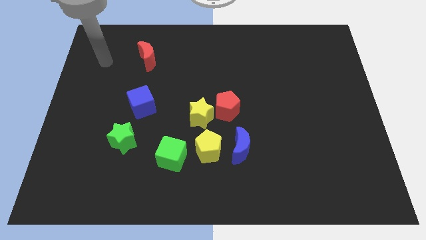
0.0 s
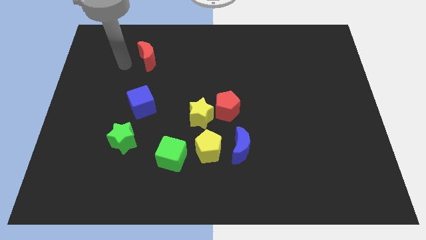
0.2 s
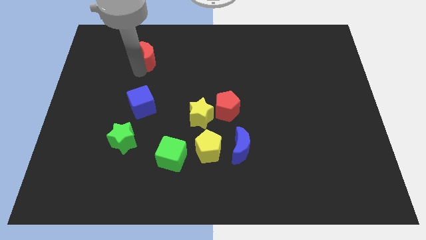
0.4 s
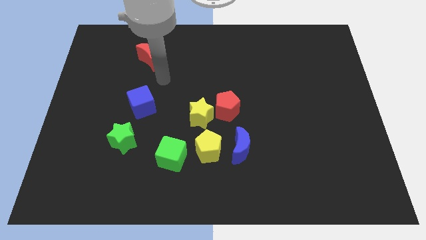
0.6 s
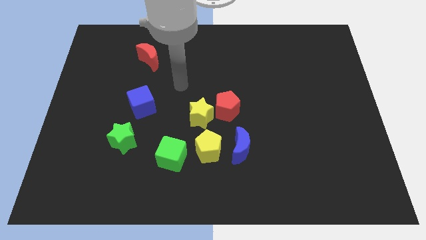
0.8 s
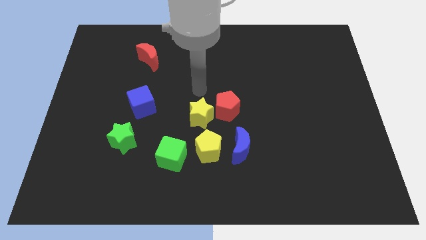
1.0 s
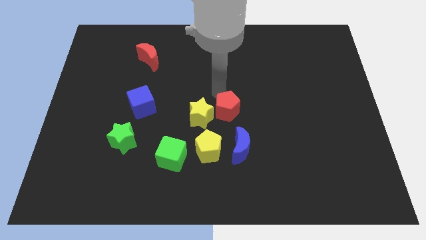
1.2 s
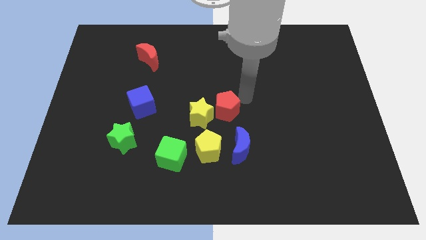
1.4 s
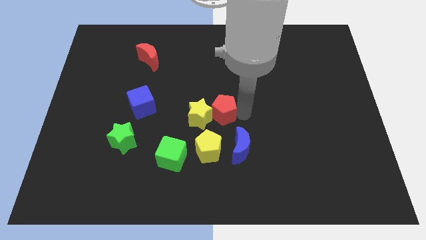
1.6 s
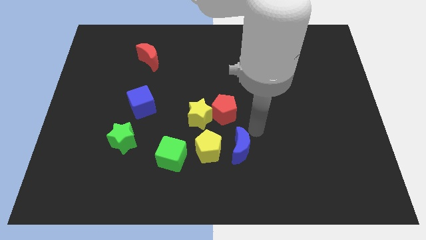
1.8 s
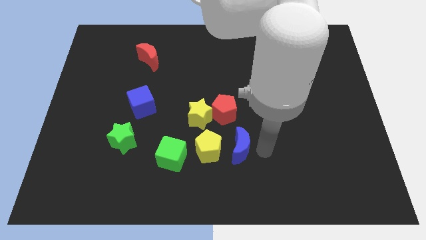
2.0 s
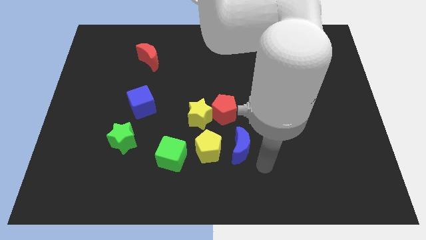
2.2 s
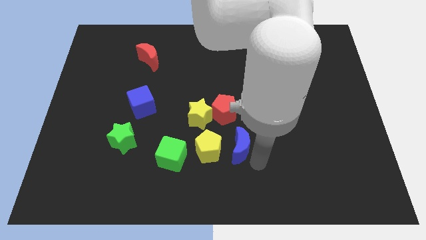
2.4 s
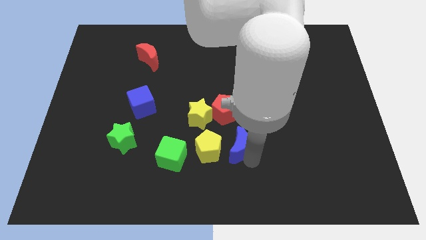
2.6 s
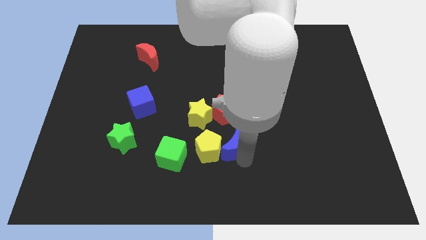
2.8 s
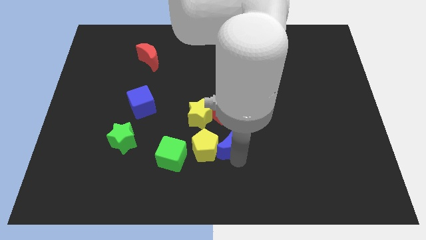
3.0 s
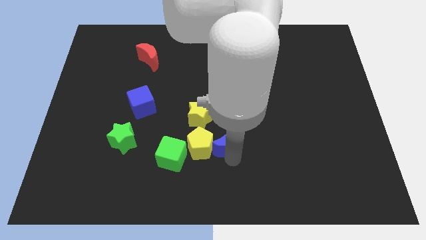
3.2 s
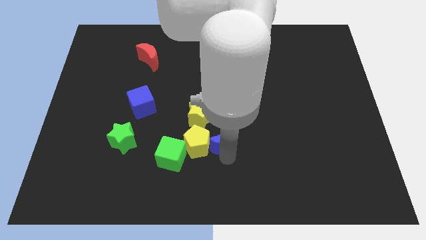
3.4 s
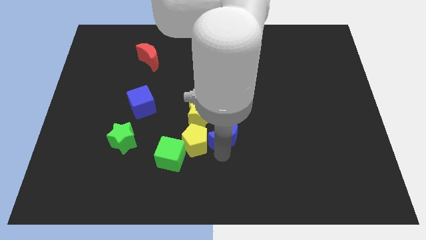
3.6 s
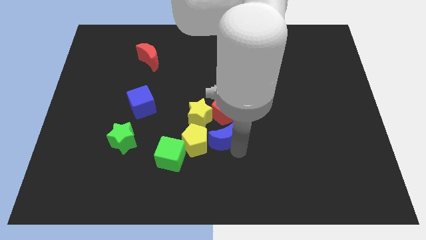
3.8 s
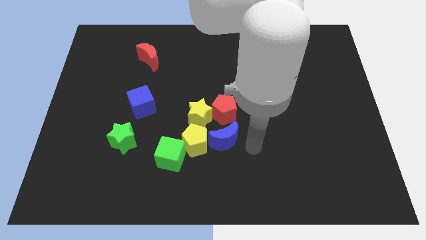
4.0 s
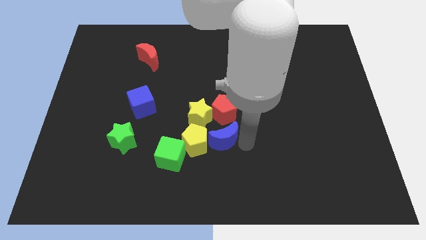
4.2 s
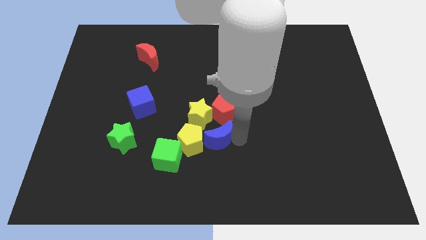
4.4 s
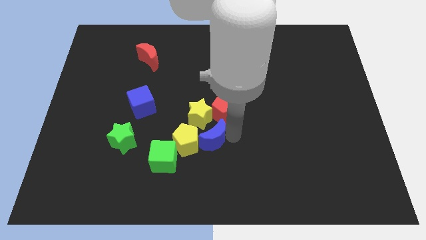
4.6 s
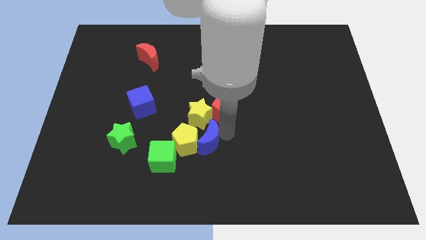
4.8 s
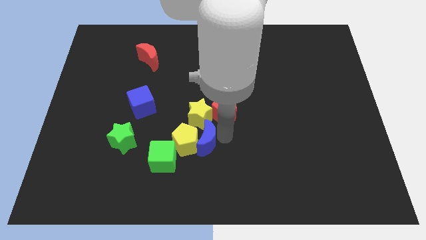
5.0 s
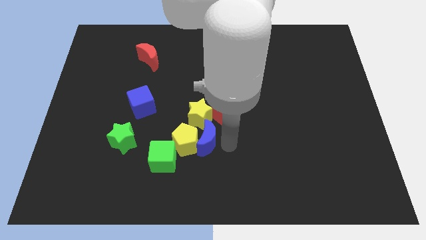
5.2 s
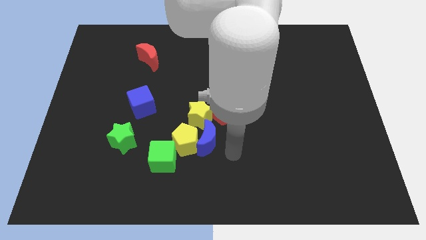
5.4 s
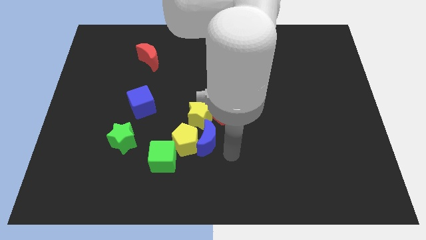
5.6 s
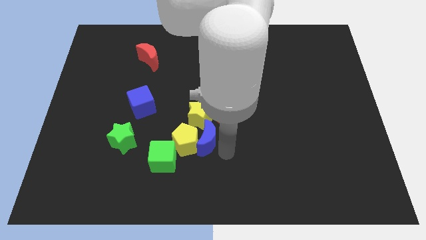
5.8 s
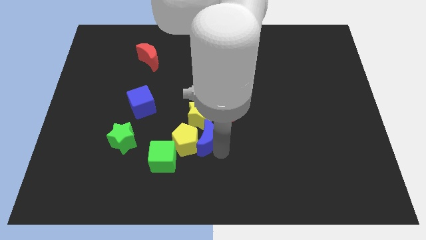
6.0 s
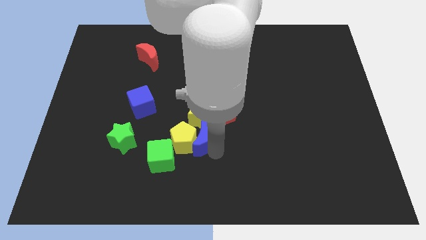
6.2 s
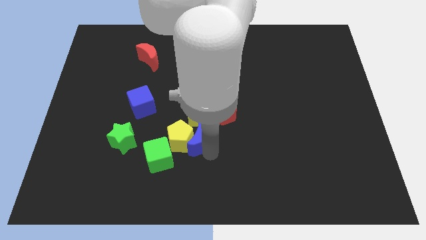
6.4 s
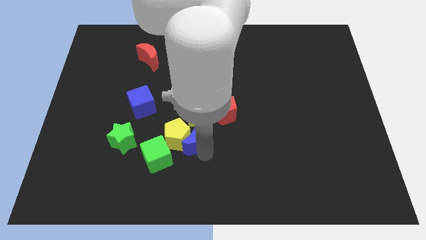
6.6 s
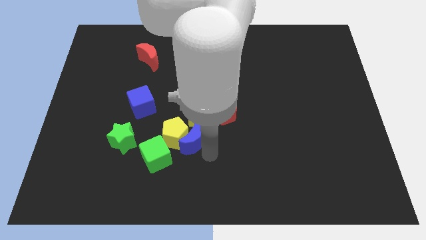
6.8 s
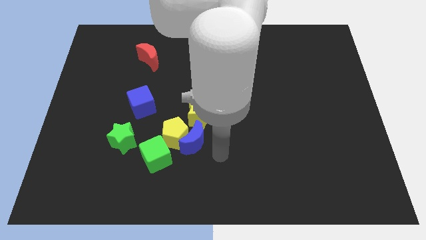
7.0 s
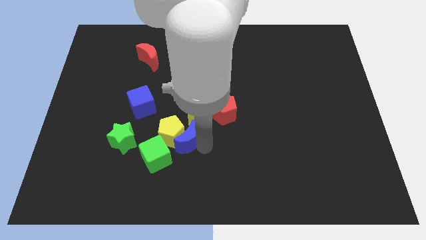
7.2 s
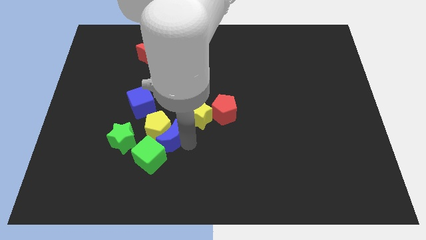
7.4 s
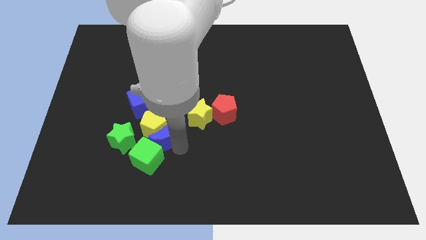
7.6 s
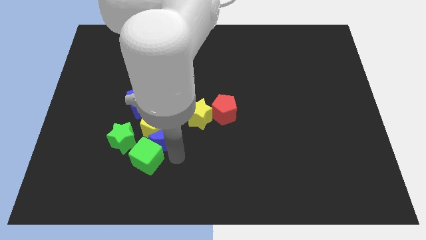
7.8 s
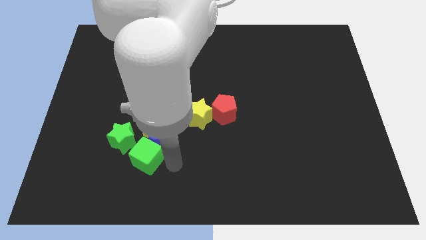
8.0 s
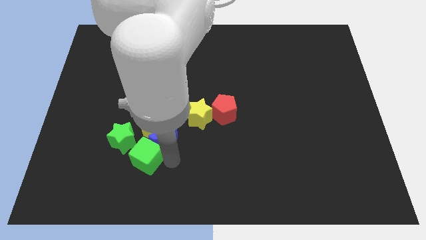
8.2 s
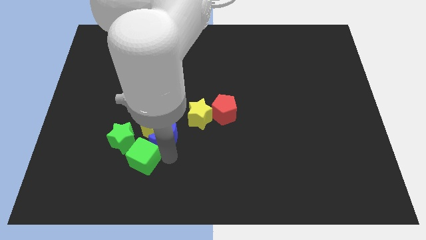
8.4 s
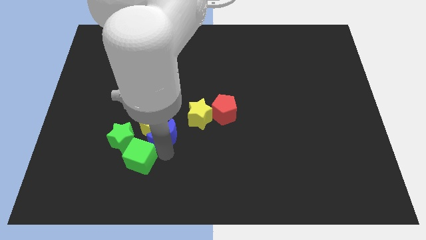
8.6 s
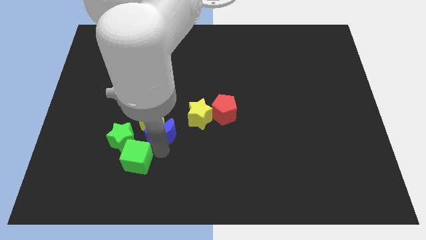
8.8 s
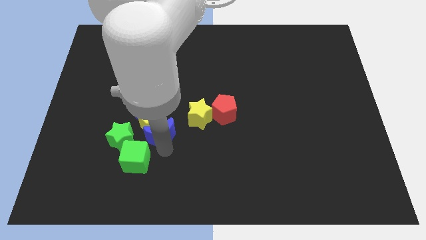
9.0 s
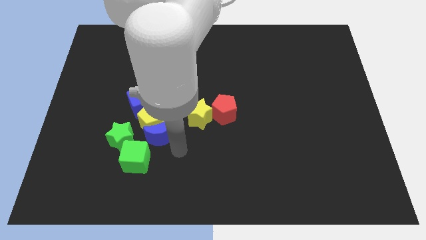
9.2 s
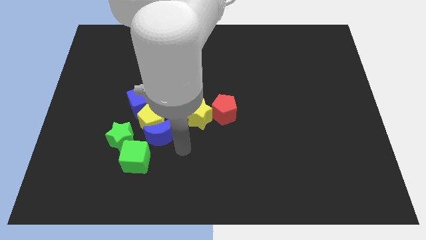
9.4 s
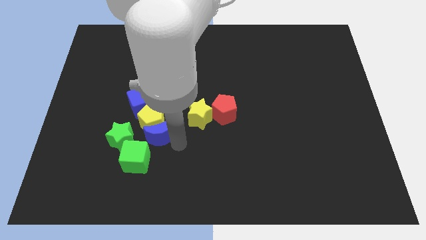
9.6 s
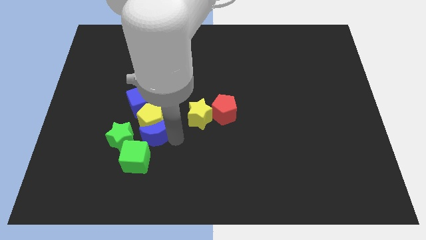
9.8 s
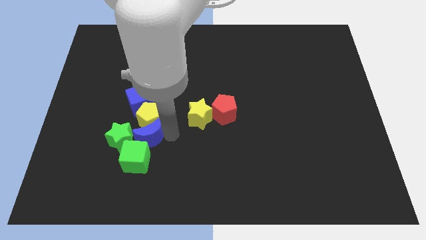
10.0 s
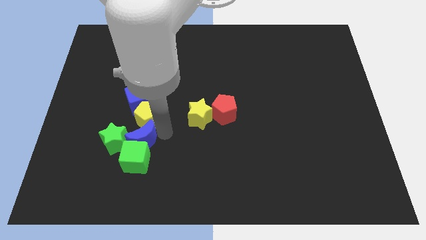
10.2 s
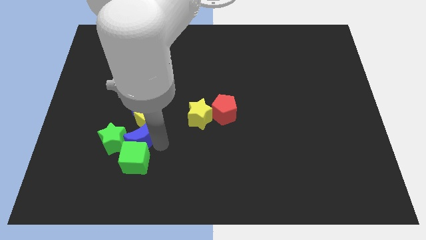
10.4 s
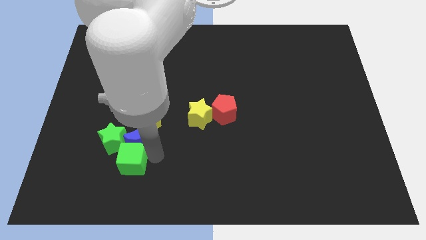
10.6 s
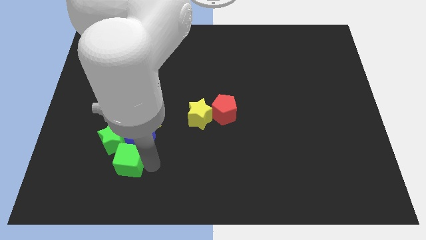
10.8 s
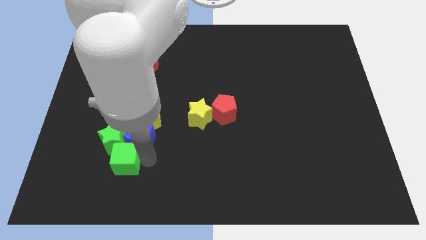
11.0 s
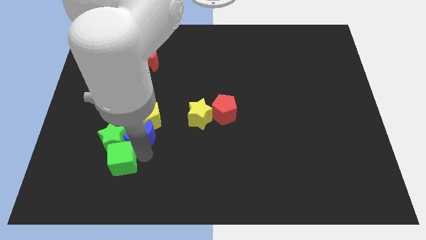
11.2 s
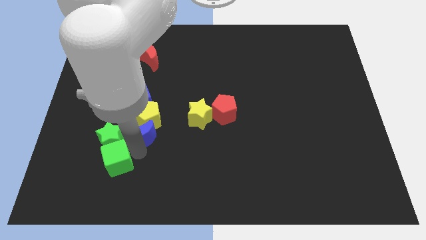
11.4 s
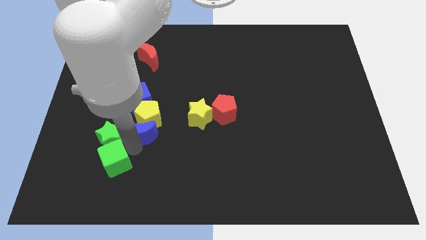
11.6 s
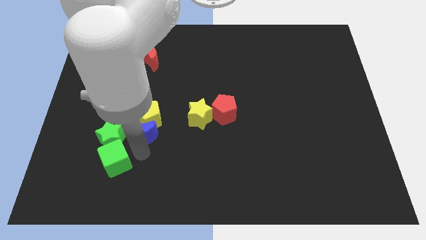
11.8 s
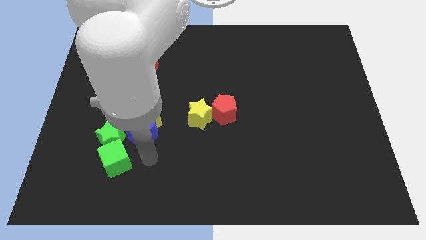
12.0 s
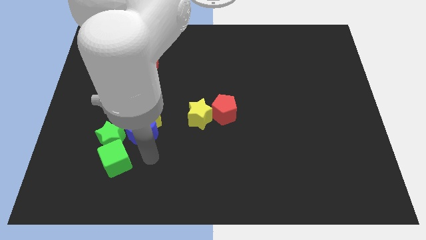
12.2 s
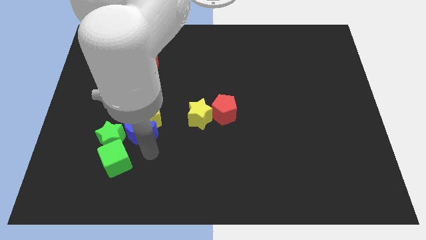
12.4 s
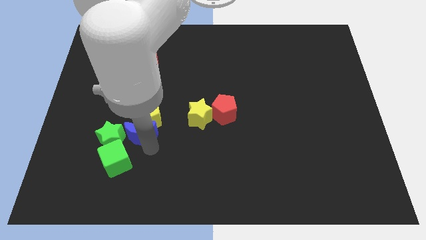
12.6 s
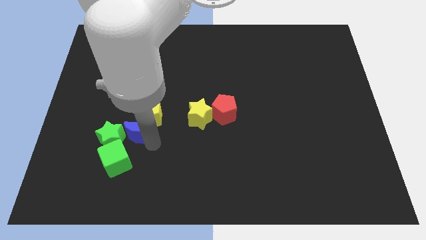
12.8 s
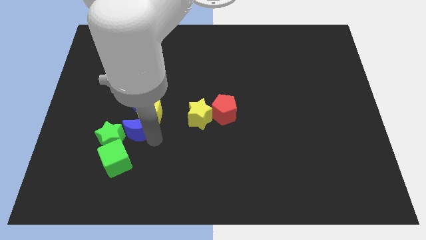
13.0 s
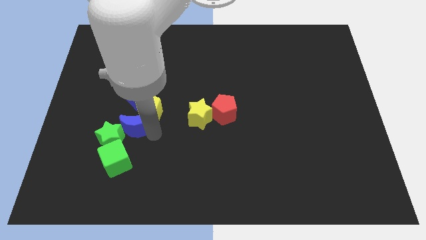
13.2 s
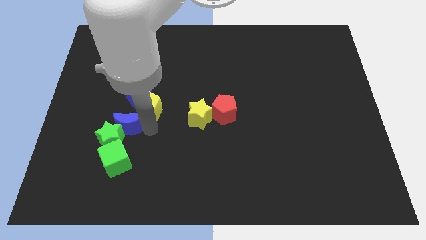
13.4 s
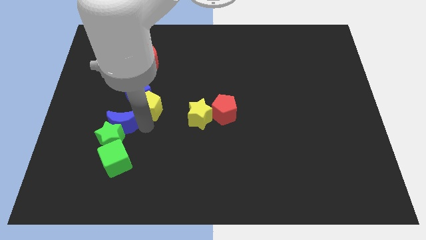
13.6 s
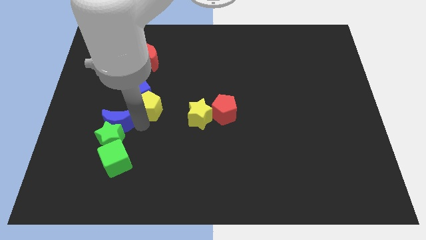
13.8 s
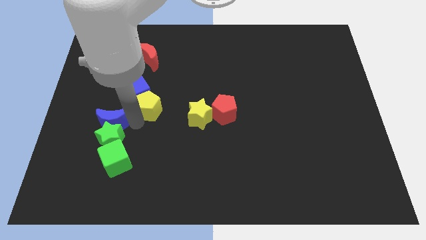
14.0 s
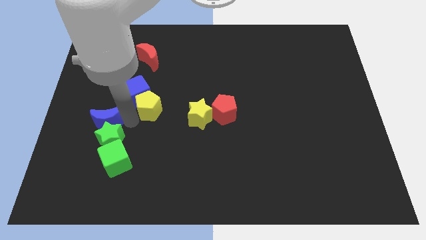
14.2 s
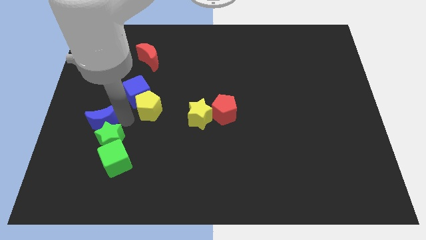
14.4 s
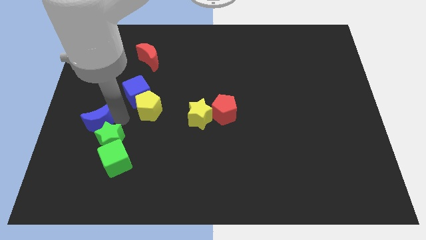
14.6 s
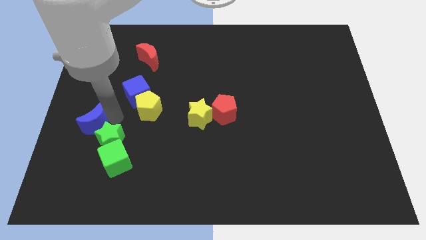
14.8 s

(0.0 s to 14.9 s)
put the blue moon to the center left
